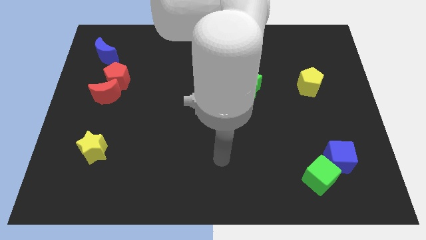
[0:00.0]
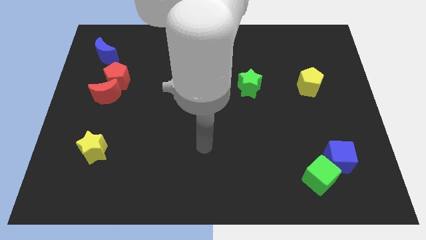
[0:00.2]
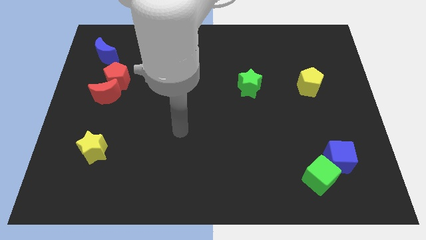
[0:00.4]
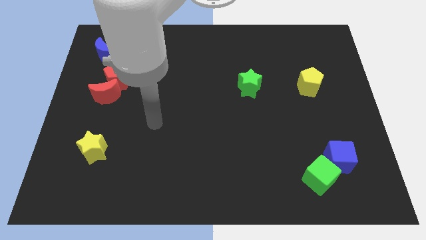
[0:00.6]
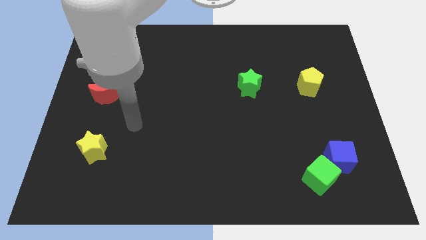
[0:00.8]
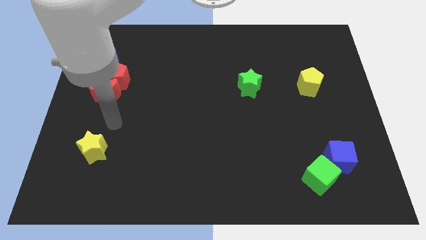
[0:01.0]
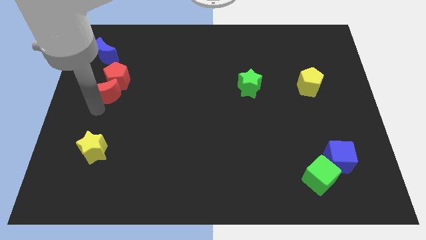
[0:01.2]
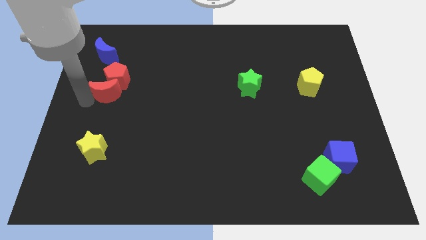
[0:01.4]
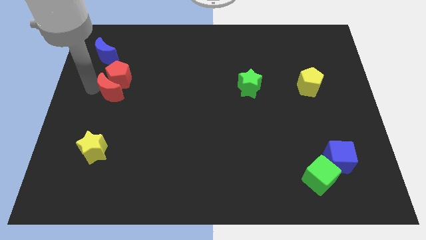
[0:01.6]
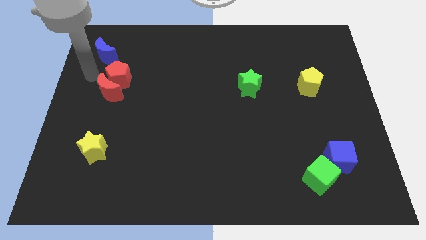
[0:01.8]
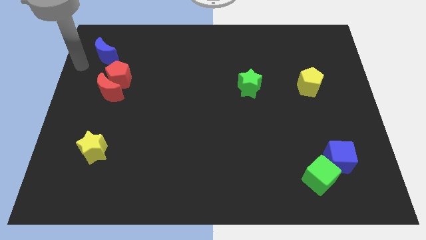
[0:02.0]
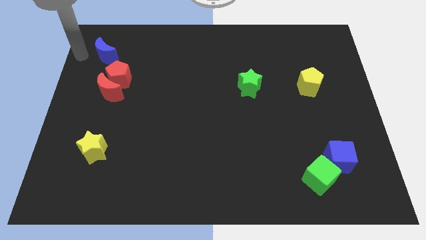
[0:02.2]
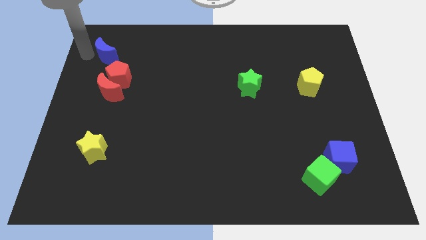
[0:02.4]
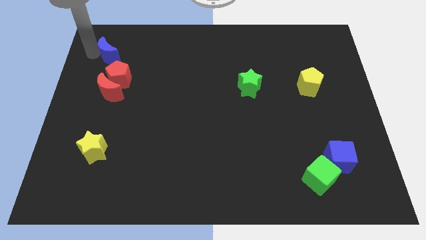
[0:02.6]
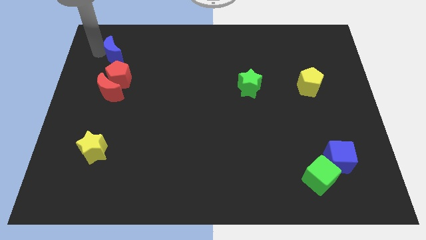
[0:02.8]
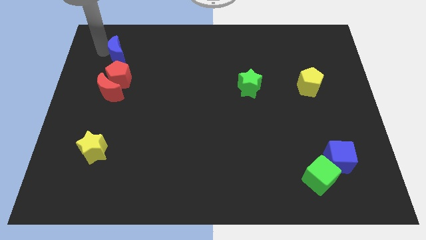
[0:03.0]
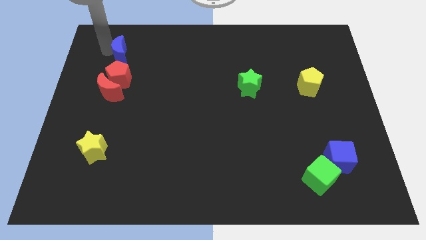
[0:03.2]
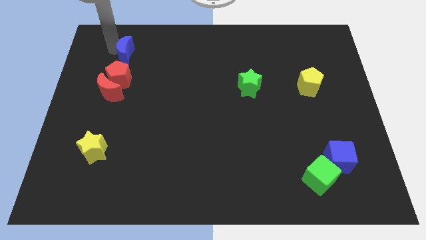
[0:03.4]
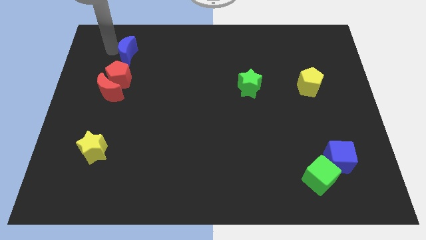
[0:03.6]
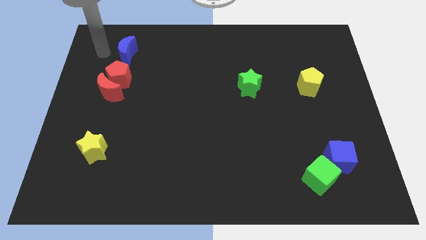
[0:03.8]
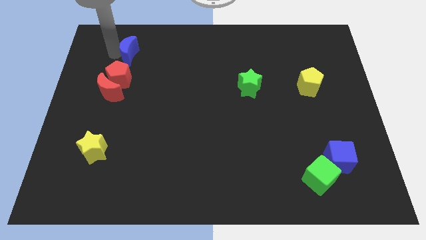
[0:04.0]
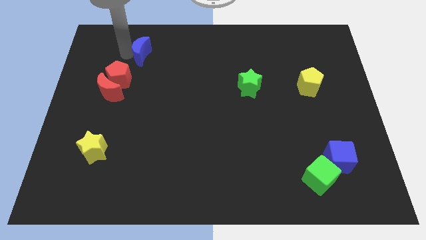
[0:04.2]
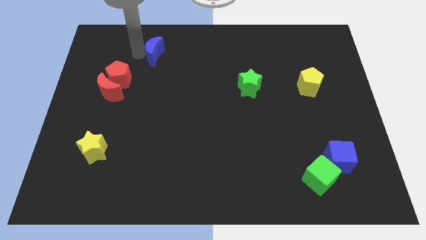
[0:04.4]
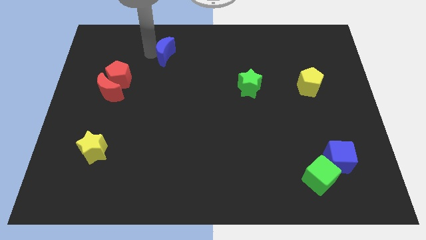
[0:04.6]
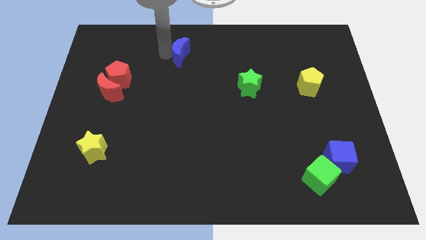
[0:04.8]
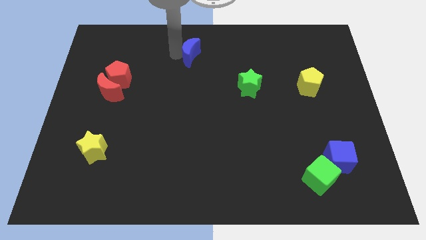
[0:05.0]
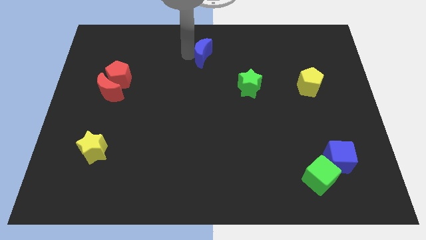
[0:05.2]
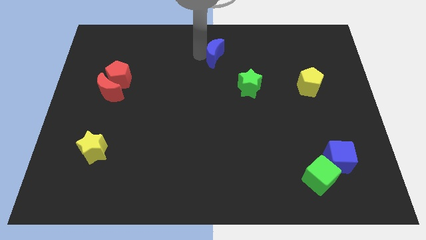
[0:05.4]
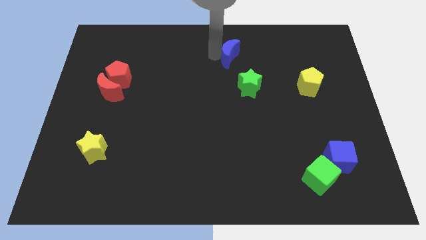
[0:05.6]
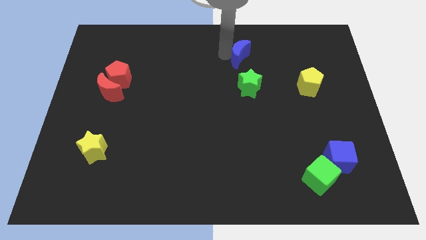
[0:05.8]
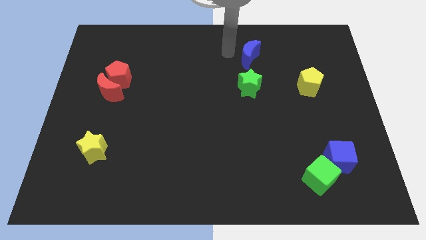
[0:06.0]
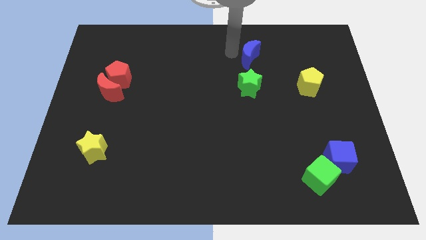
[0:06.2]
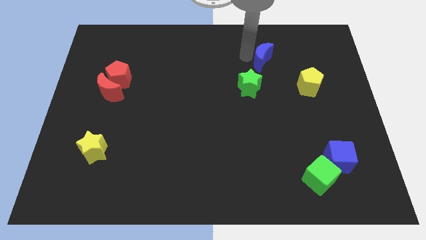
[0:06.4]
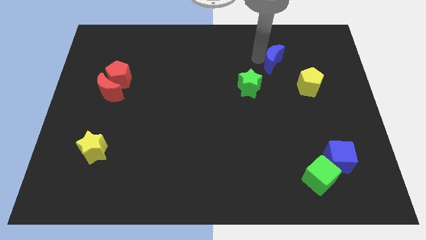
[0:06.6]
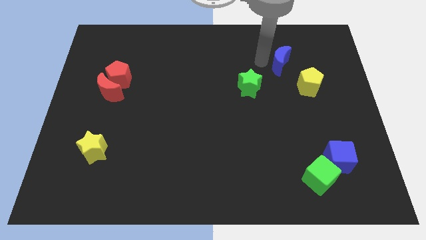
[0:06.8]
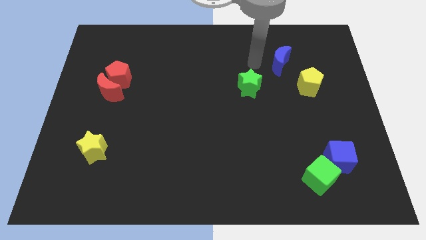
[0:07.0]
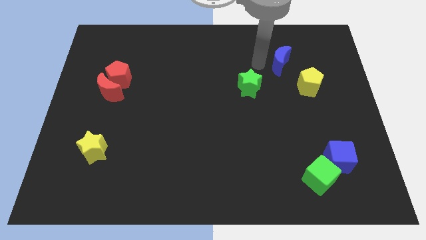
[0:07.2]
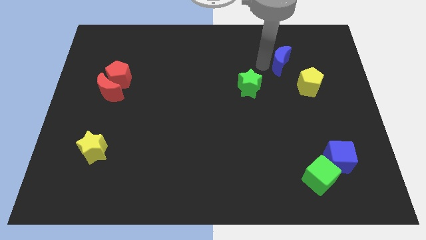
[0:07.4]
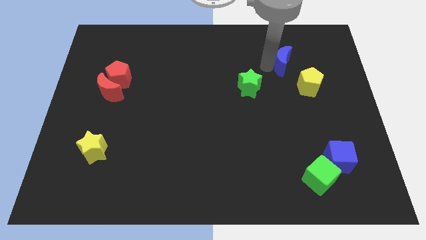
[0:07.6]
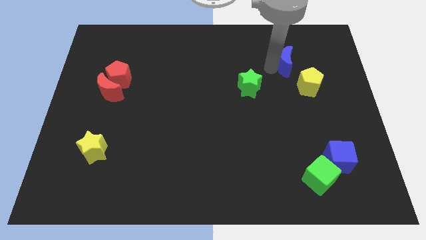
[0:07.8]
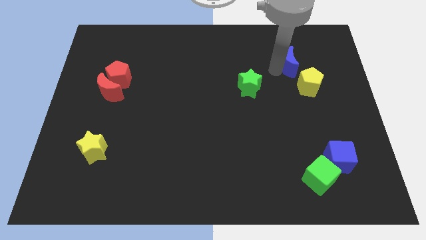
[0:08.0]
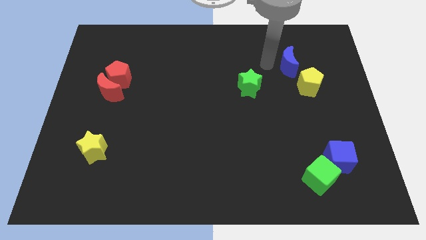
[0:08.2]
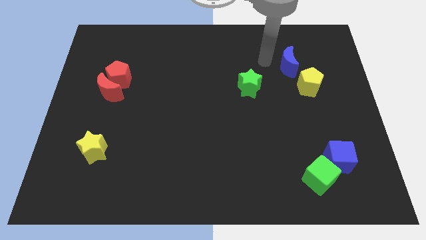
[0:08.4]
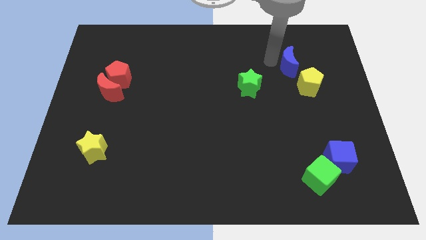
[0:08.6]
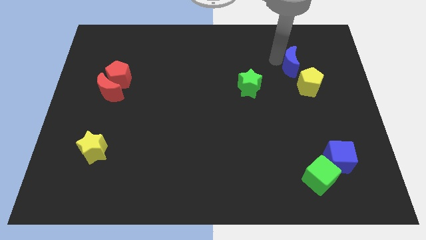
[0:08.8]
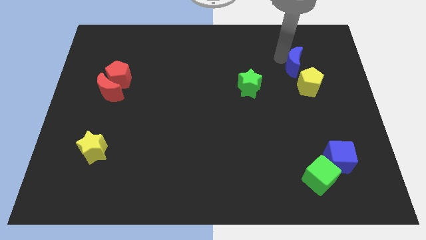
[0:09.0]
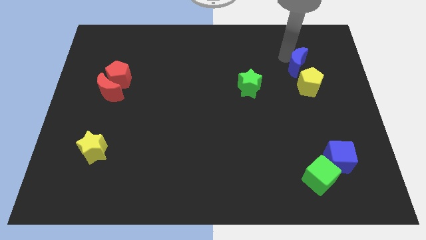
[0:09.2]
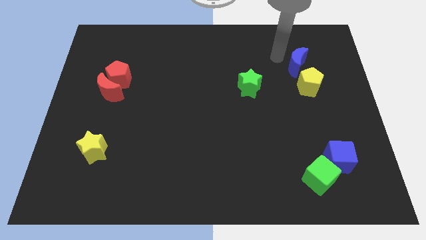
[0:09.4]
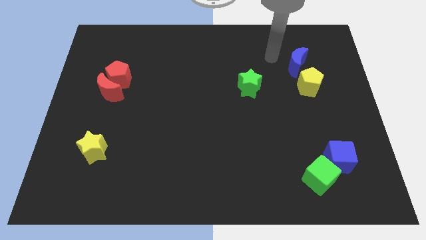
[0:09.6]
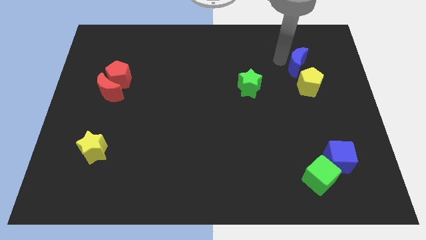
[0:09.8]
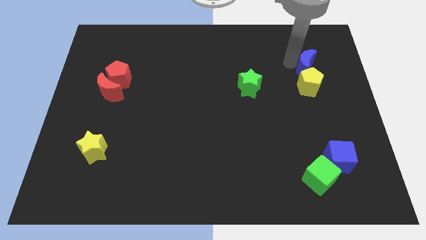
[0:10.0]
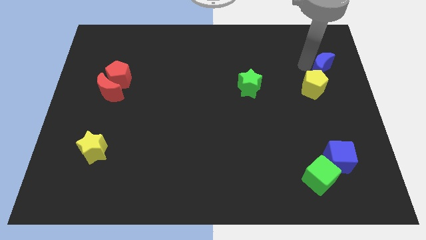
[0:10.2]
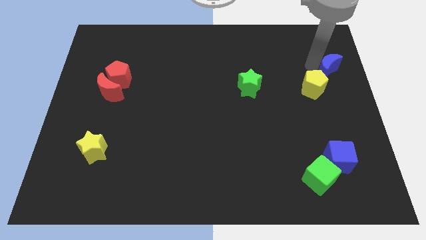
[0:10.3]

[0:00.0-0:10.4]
slide the blue moon to the right side of the board

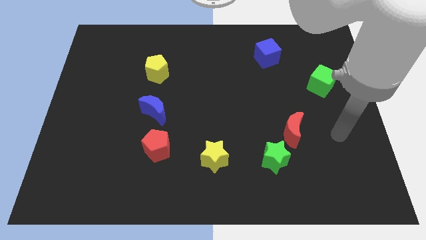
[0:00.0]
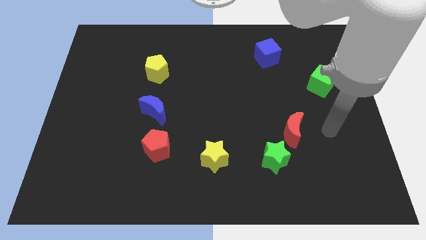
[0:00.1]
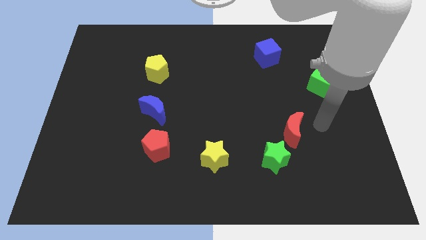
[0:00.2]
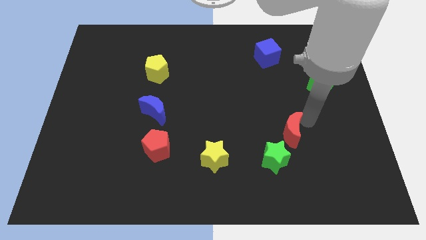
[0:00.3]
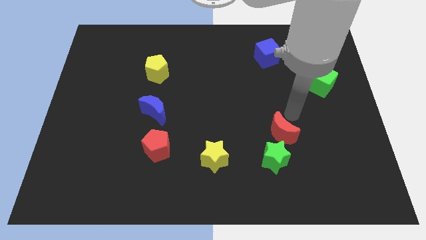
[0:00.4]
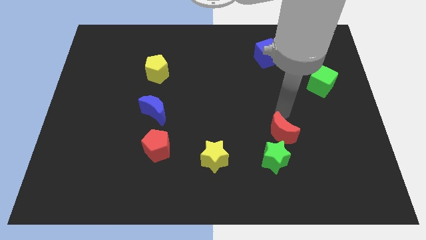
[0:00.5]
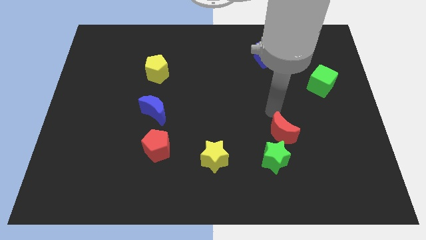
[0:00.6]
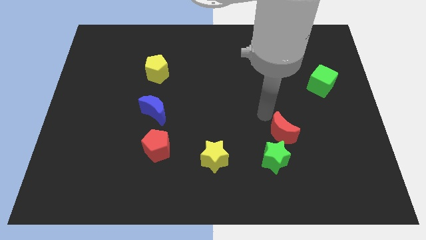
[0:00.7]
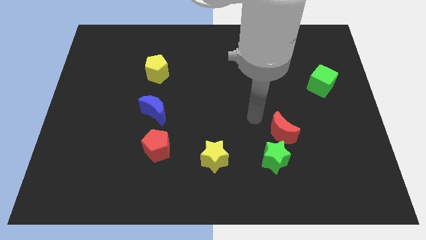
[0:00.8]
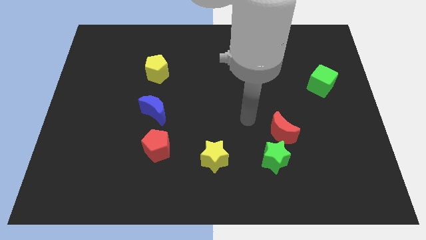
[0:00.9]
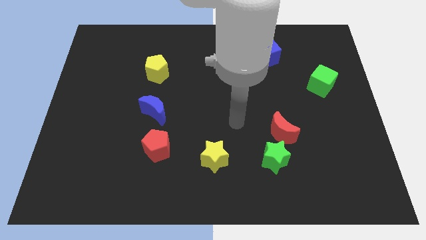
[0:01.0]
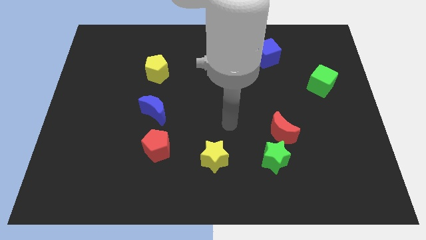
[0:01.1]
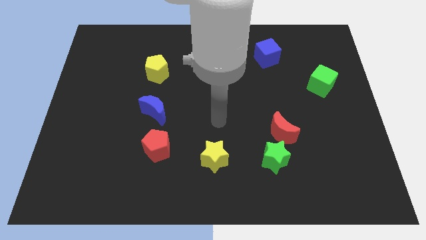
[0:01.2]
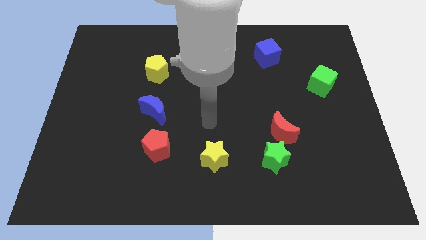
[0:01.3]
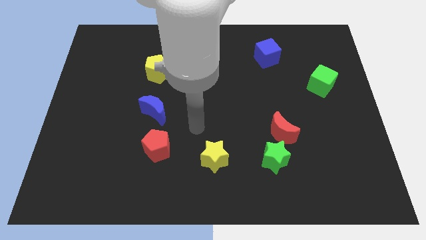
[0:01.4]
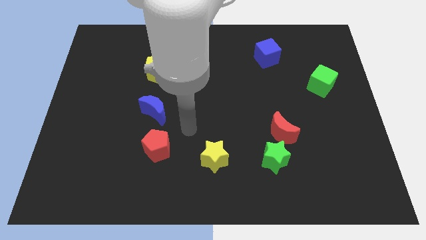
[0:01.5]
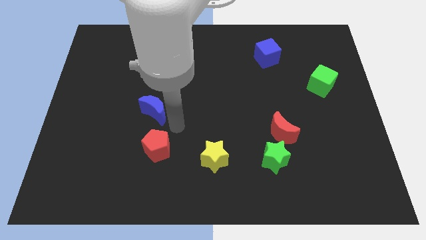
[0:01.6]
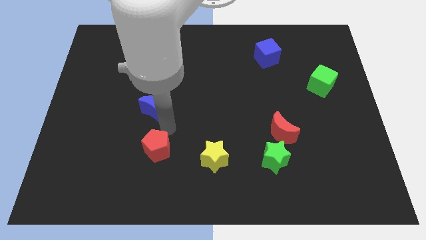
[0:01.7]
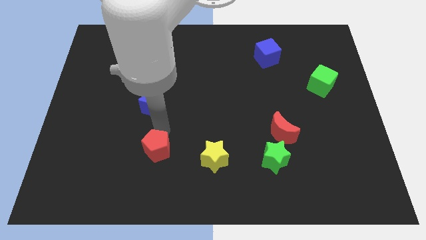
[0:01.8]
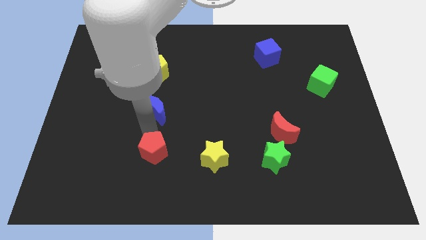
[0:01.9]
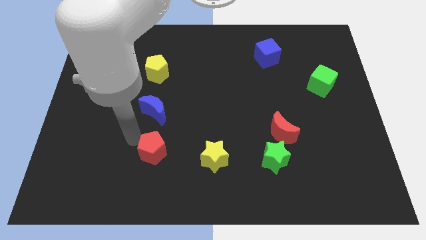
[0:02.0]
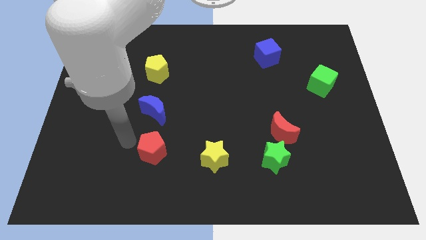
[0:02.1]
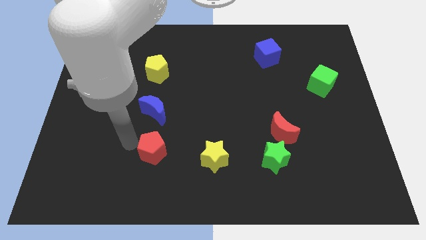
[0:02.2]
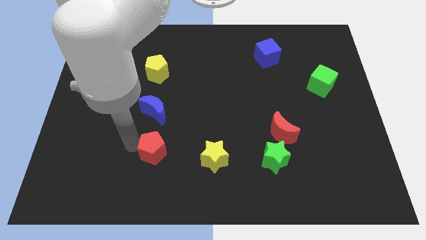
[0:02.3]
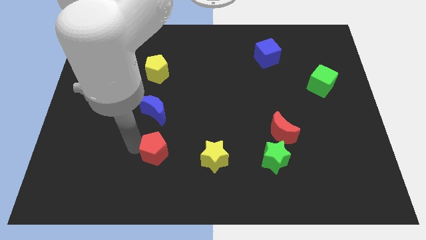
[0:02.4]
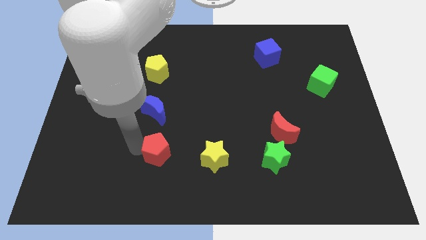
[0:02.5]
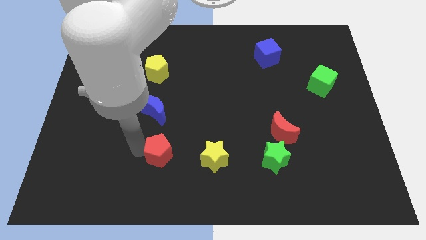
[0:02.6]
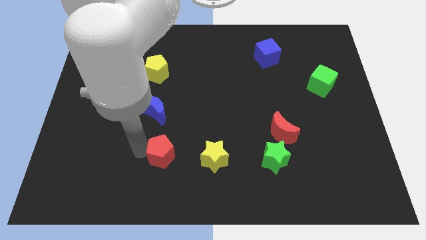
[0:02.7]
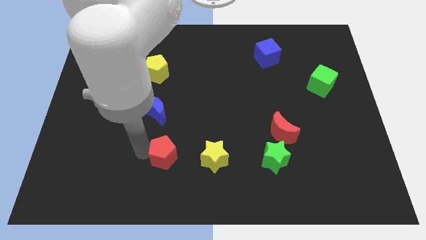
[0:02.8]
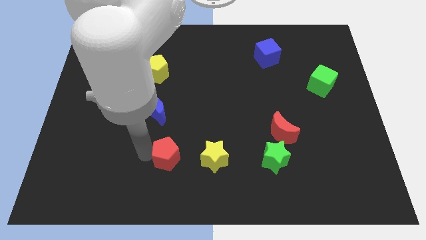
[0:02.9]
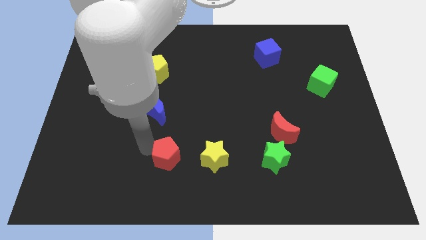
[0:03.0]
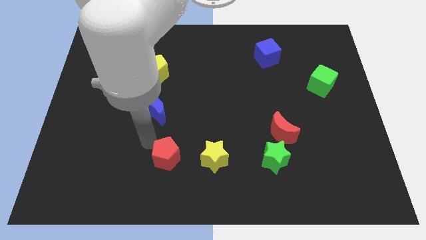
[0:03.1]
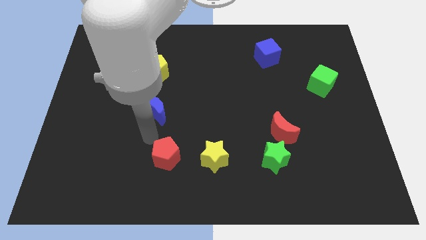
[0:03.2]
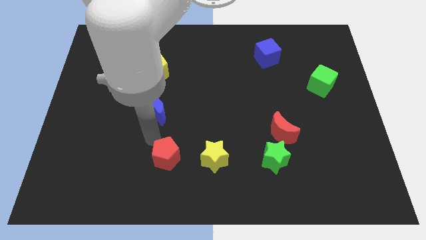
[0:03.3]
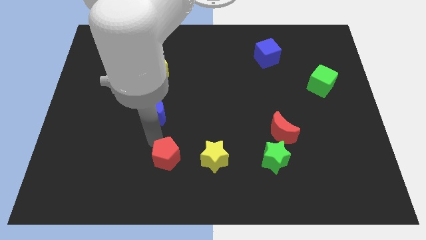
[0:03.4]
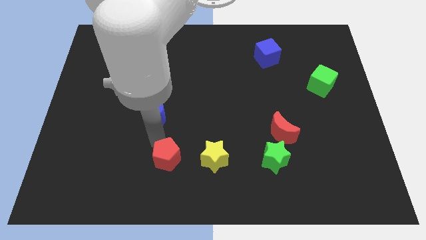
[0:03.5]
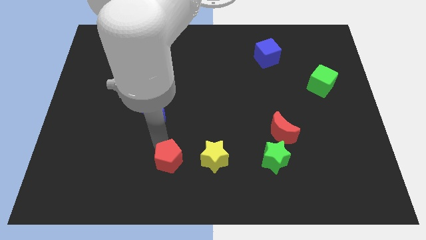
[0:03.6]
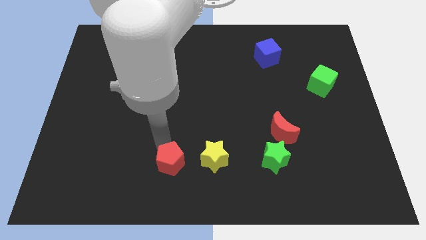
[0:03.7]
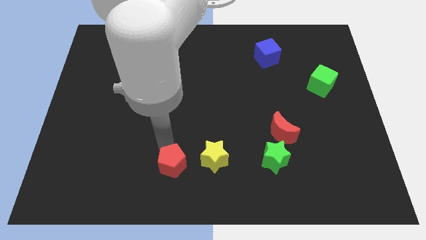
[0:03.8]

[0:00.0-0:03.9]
move the red pentagon to the bottom side
